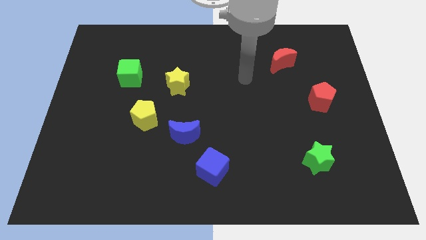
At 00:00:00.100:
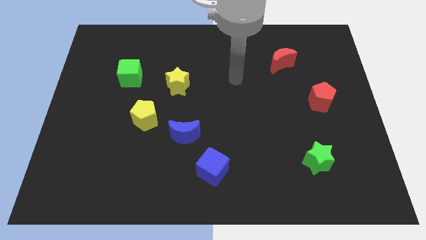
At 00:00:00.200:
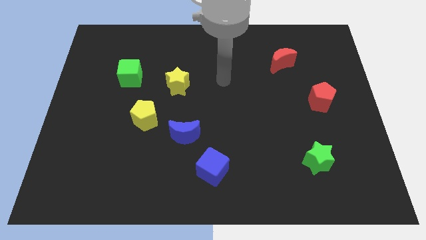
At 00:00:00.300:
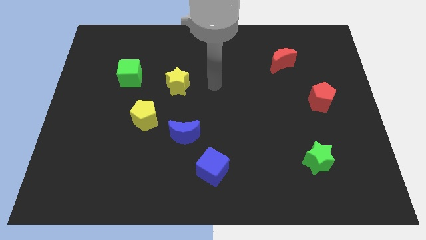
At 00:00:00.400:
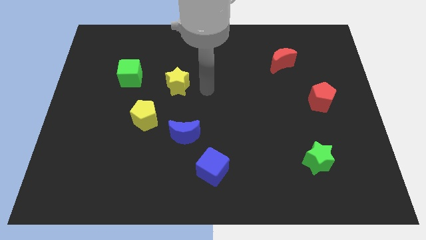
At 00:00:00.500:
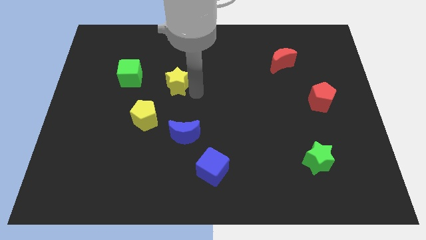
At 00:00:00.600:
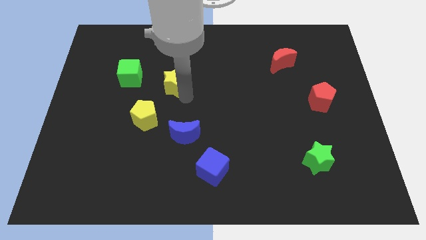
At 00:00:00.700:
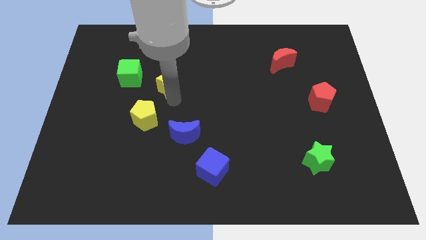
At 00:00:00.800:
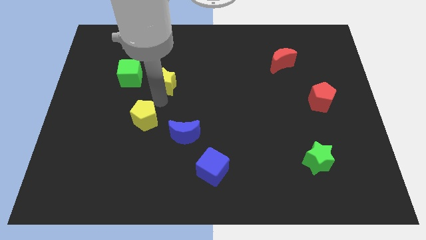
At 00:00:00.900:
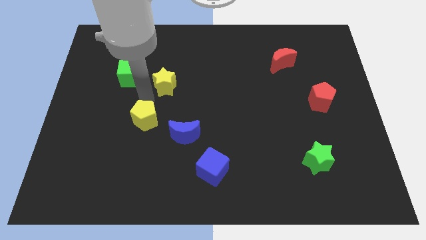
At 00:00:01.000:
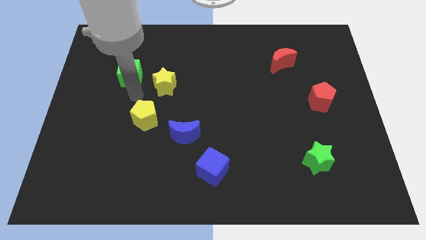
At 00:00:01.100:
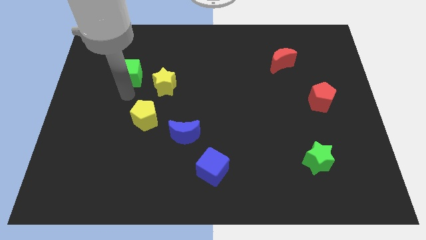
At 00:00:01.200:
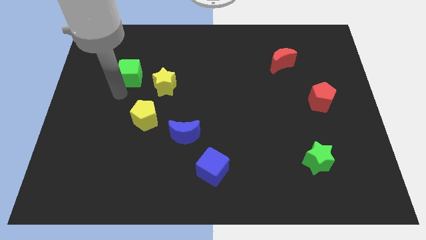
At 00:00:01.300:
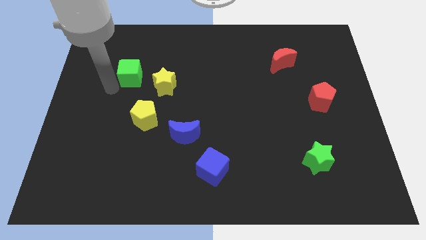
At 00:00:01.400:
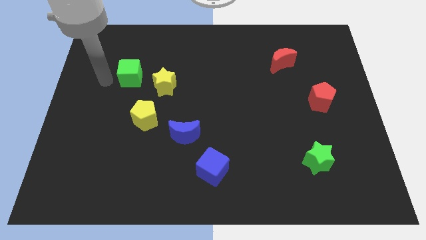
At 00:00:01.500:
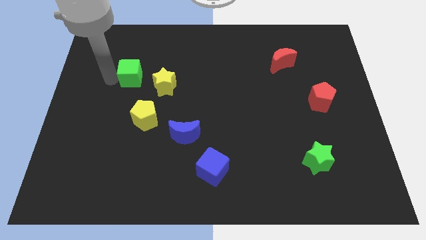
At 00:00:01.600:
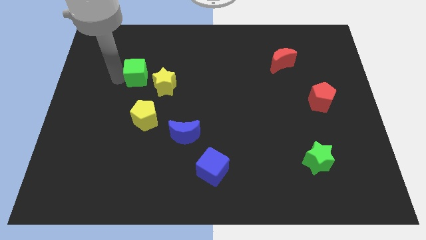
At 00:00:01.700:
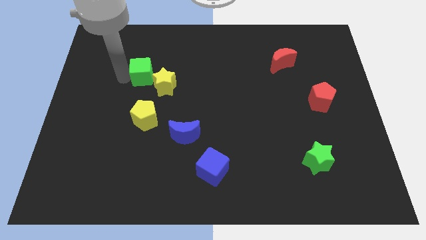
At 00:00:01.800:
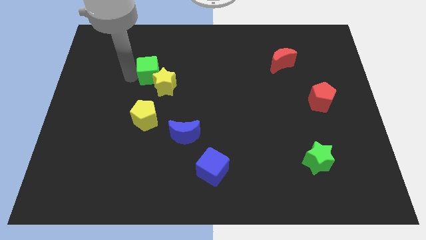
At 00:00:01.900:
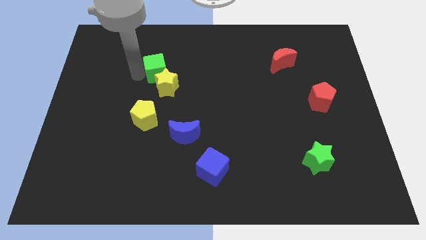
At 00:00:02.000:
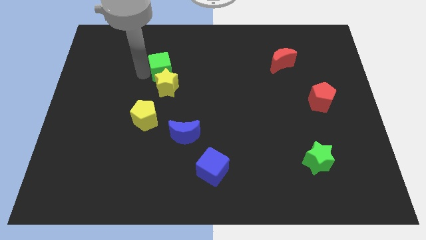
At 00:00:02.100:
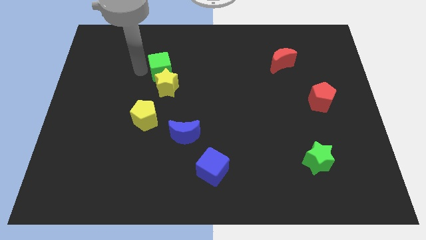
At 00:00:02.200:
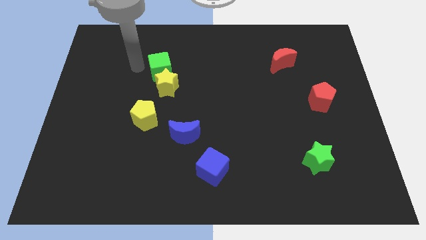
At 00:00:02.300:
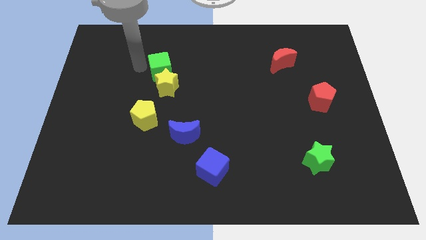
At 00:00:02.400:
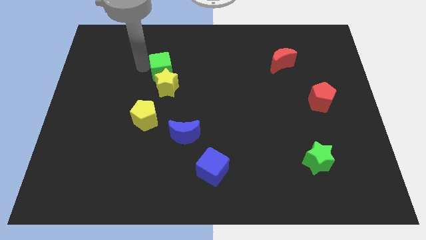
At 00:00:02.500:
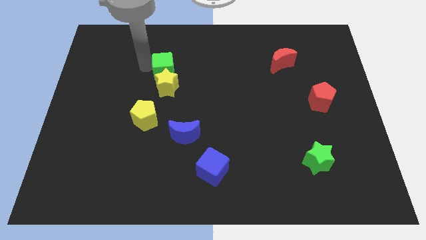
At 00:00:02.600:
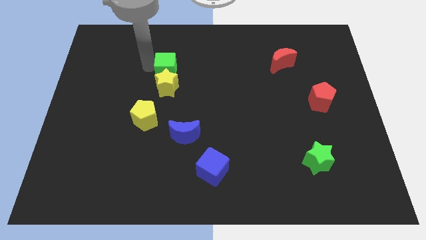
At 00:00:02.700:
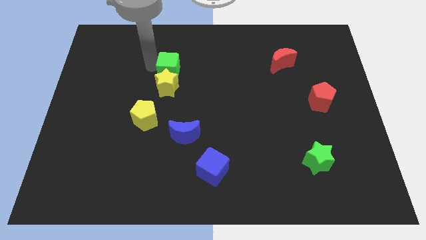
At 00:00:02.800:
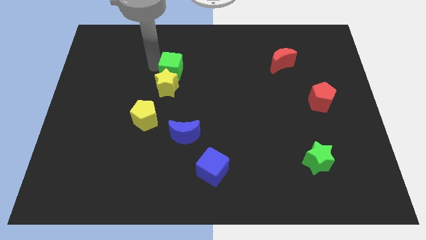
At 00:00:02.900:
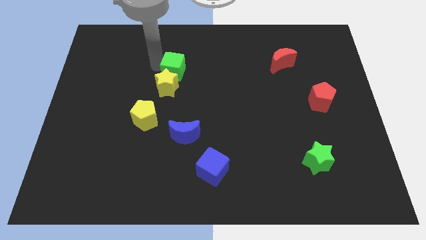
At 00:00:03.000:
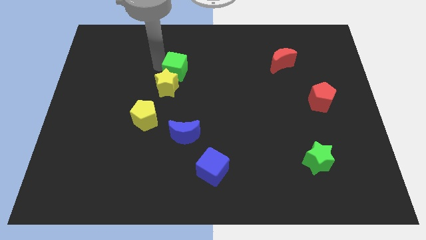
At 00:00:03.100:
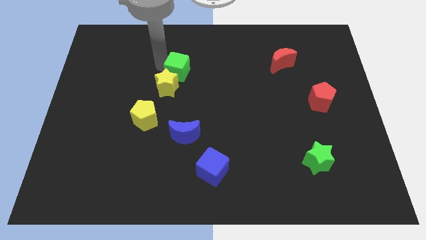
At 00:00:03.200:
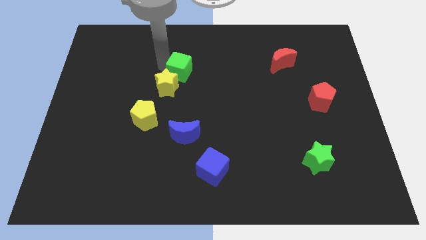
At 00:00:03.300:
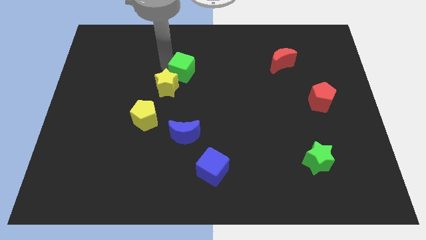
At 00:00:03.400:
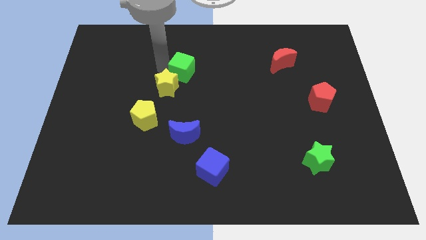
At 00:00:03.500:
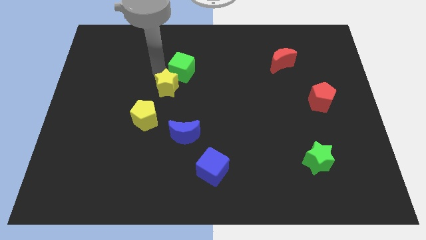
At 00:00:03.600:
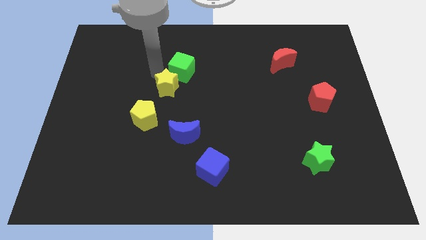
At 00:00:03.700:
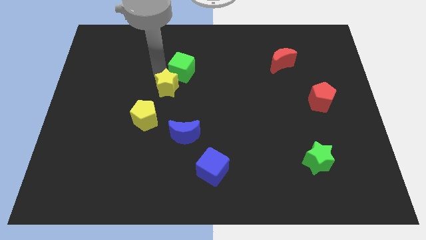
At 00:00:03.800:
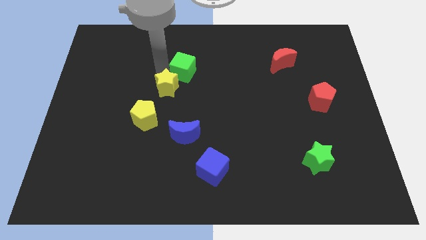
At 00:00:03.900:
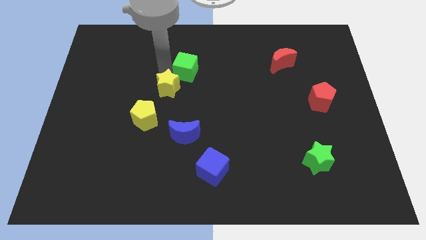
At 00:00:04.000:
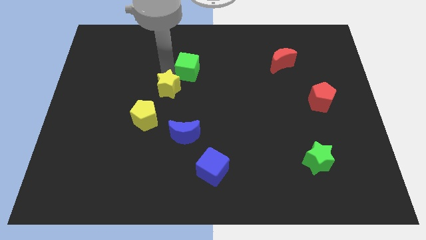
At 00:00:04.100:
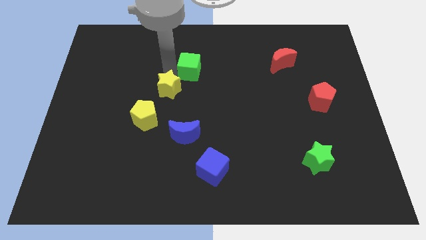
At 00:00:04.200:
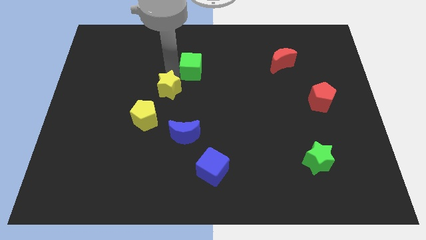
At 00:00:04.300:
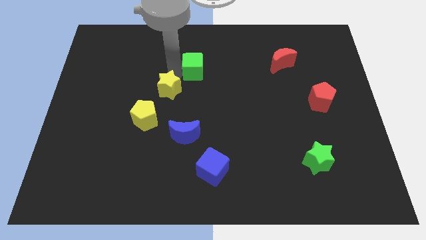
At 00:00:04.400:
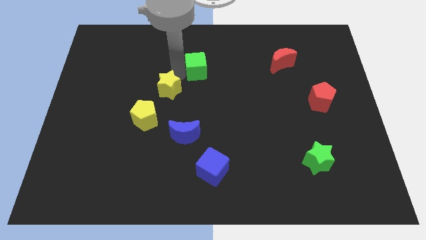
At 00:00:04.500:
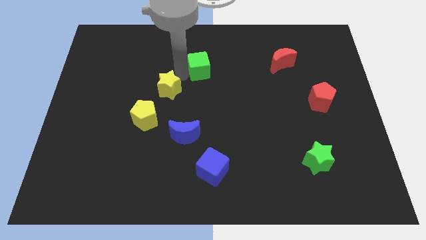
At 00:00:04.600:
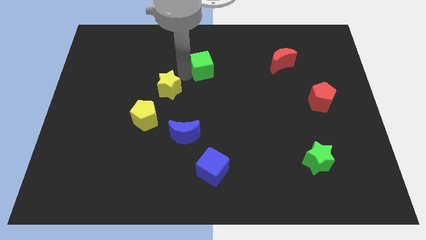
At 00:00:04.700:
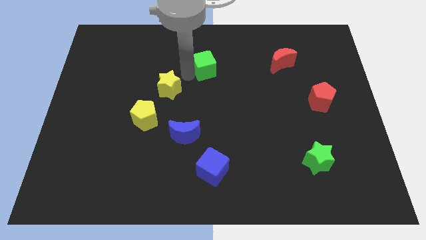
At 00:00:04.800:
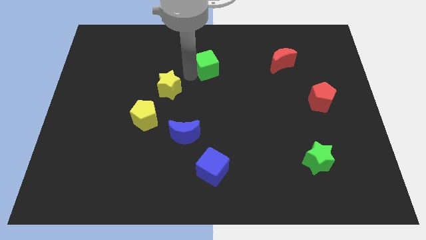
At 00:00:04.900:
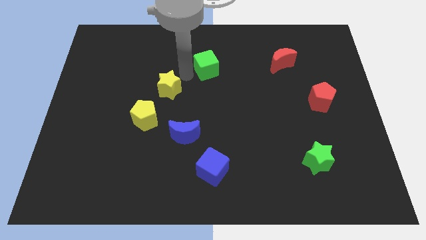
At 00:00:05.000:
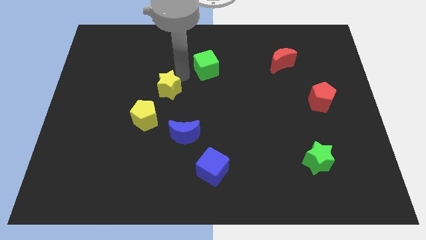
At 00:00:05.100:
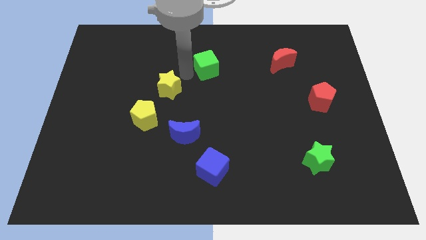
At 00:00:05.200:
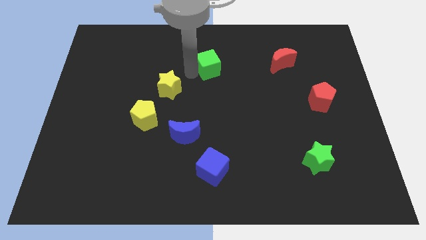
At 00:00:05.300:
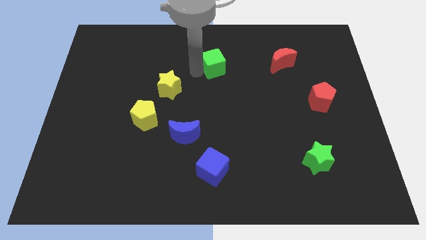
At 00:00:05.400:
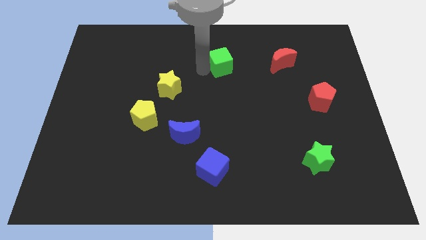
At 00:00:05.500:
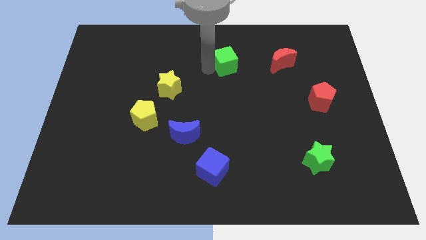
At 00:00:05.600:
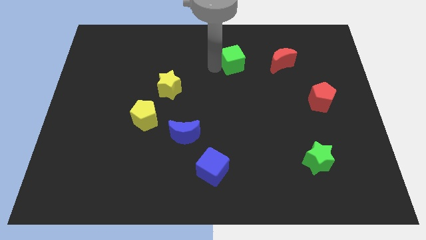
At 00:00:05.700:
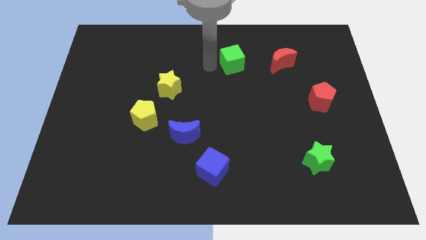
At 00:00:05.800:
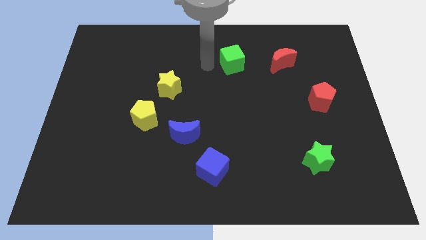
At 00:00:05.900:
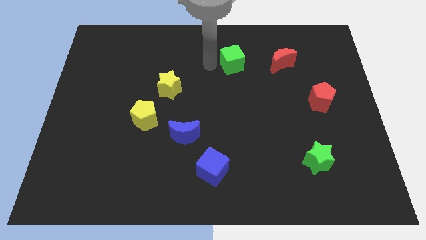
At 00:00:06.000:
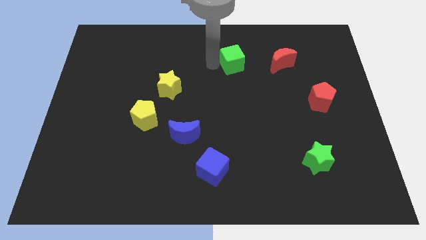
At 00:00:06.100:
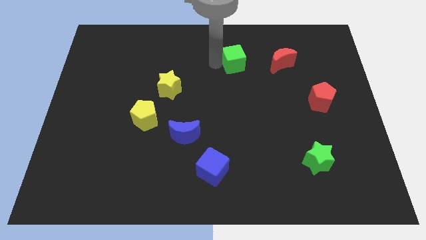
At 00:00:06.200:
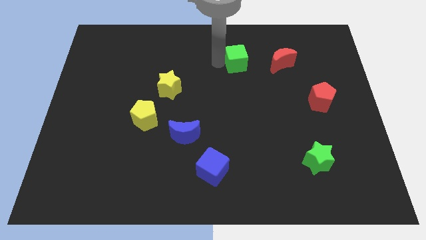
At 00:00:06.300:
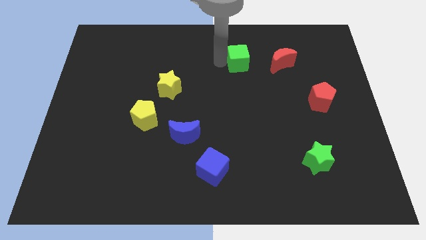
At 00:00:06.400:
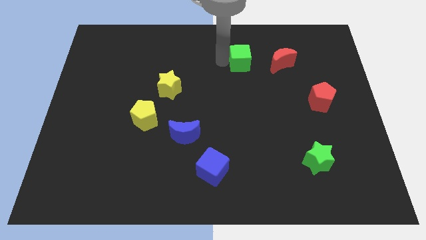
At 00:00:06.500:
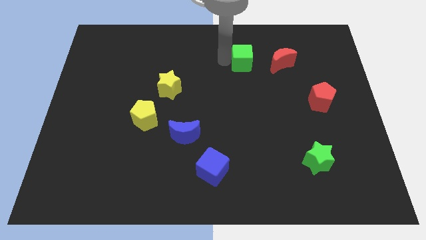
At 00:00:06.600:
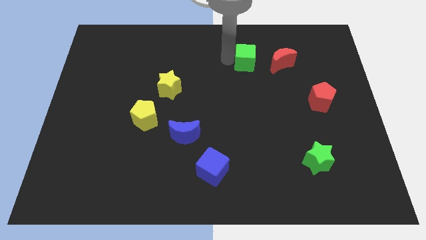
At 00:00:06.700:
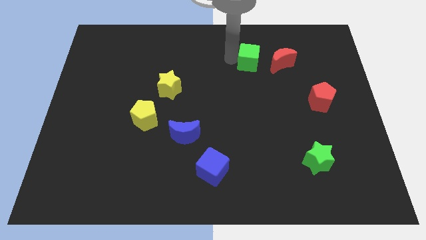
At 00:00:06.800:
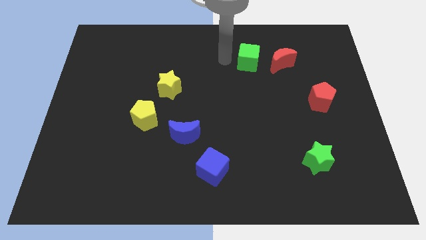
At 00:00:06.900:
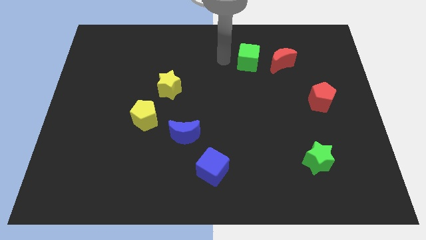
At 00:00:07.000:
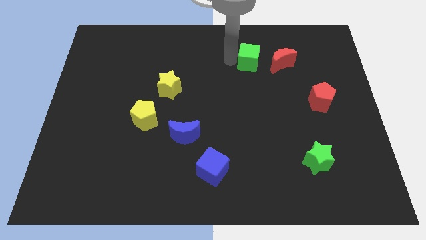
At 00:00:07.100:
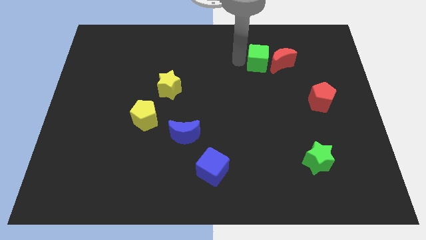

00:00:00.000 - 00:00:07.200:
move the green cube to the red moon
